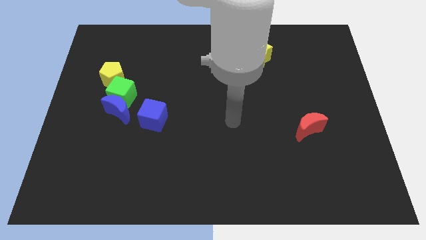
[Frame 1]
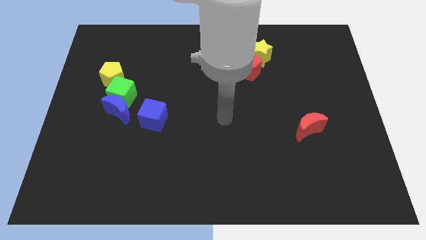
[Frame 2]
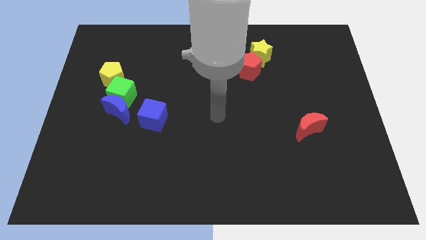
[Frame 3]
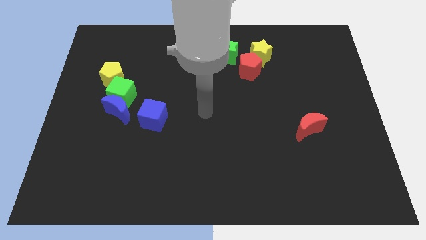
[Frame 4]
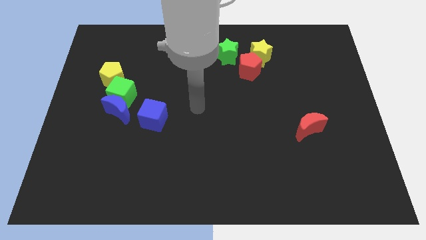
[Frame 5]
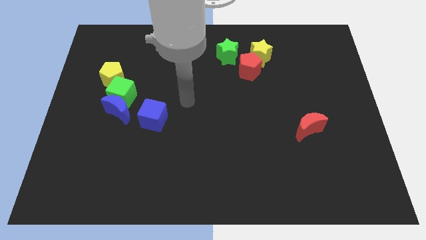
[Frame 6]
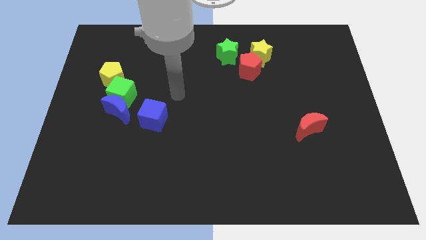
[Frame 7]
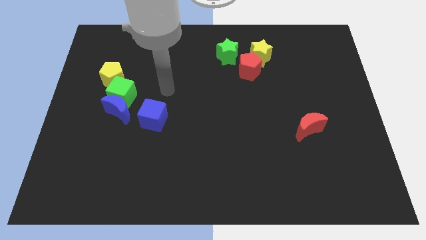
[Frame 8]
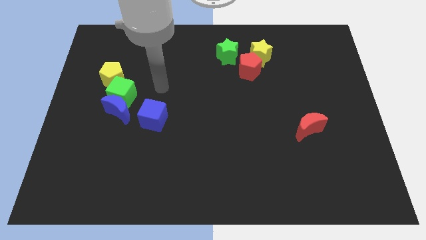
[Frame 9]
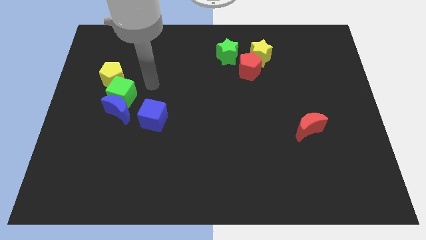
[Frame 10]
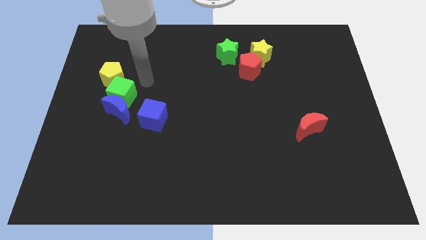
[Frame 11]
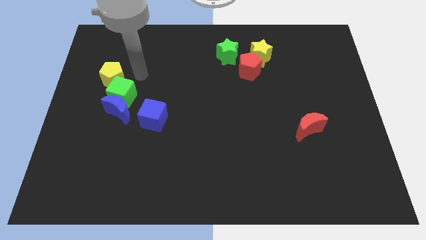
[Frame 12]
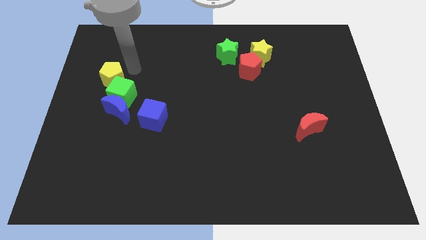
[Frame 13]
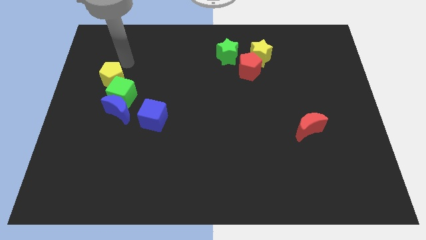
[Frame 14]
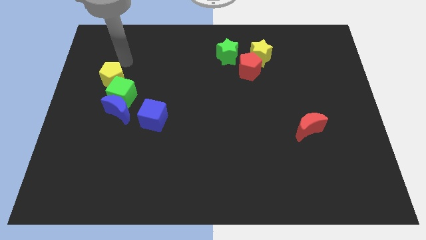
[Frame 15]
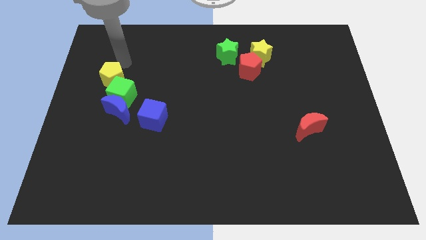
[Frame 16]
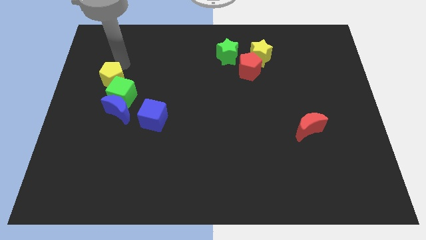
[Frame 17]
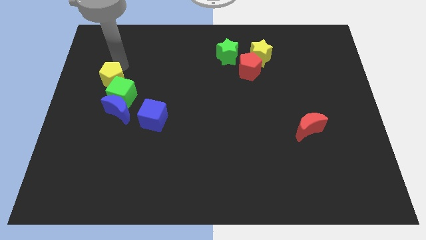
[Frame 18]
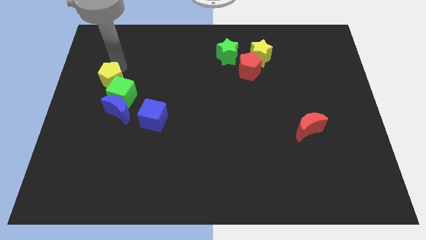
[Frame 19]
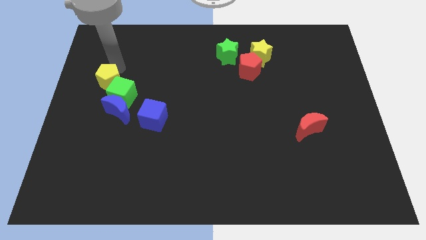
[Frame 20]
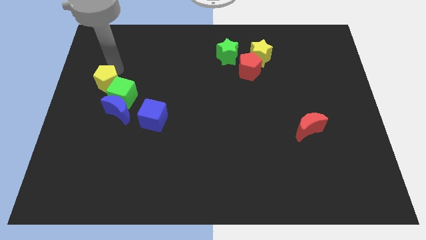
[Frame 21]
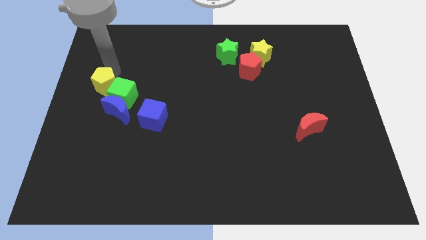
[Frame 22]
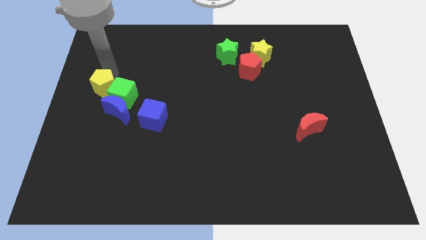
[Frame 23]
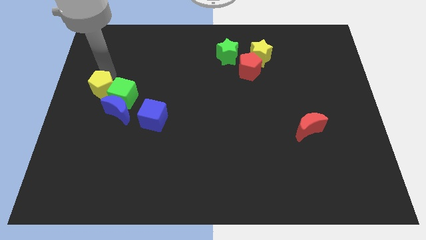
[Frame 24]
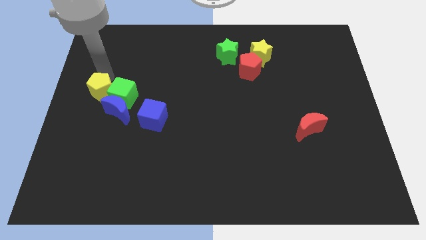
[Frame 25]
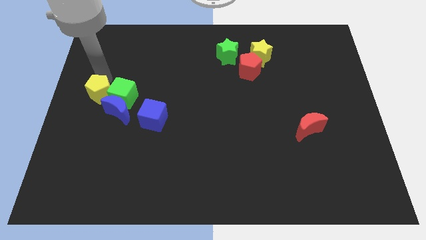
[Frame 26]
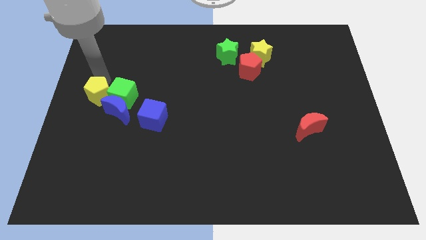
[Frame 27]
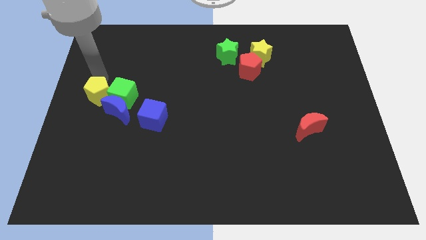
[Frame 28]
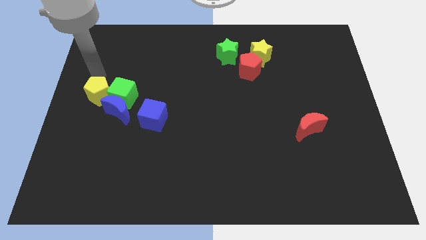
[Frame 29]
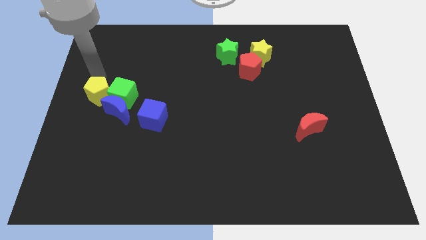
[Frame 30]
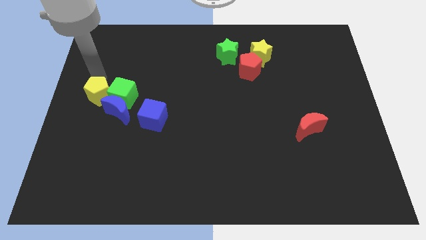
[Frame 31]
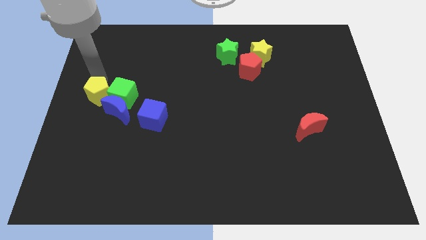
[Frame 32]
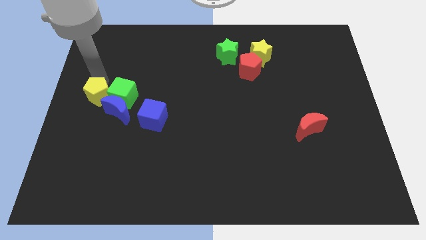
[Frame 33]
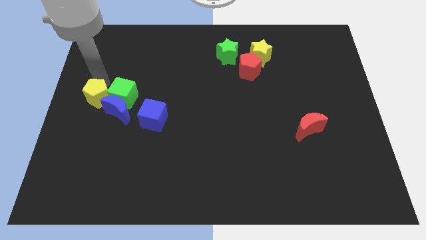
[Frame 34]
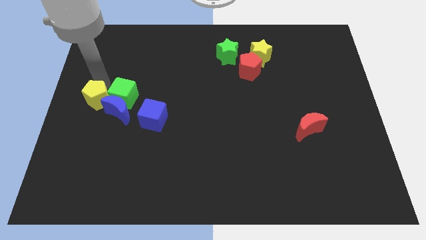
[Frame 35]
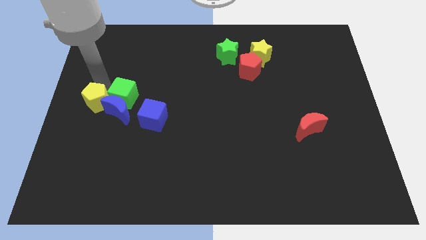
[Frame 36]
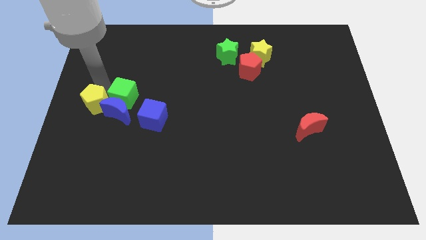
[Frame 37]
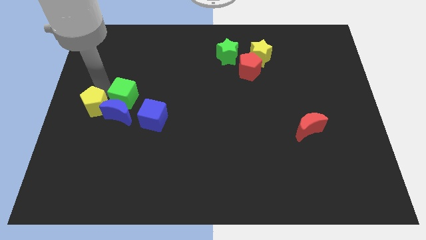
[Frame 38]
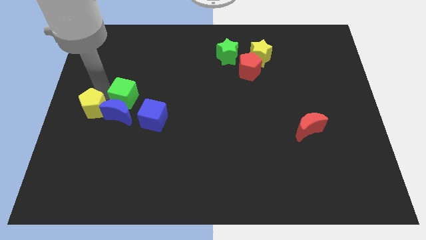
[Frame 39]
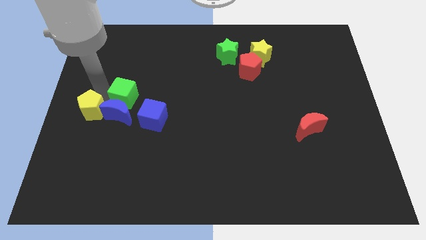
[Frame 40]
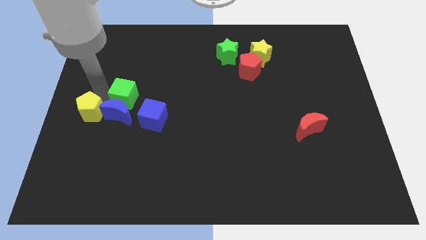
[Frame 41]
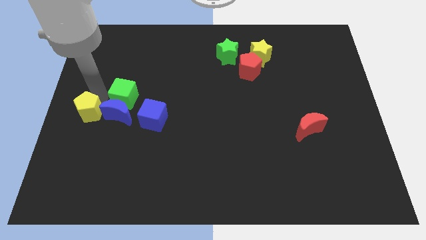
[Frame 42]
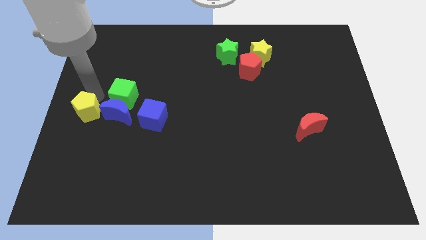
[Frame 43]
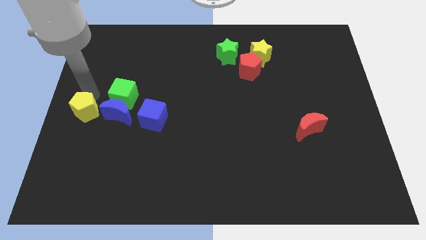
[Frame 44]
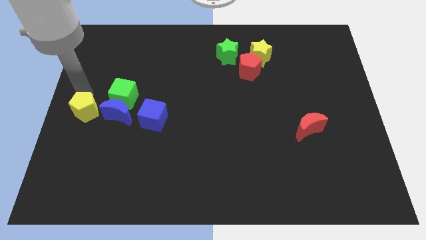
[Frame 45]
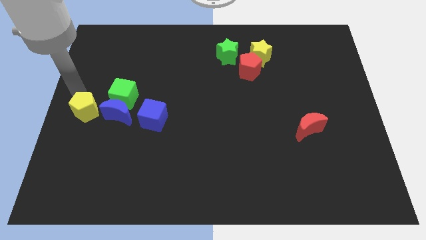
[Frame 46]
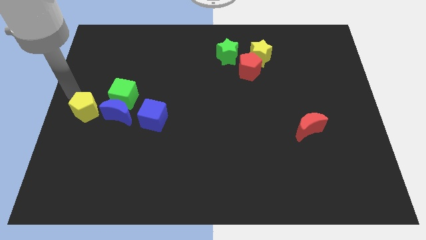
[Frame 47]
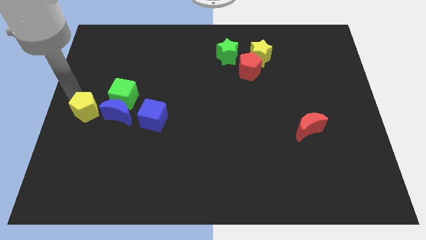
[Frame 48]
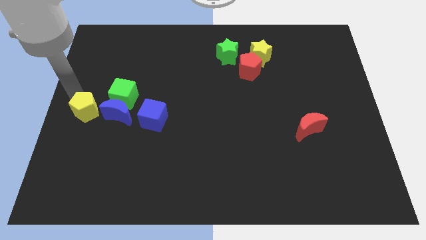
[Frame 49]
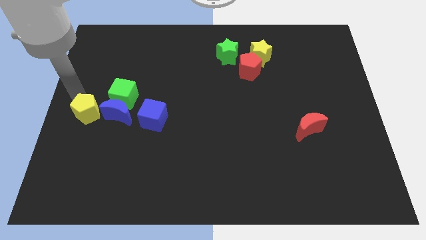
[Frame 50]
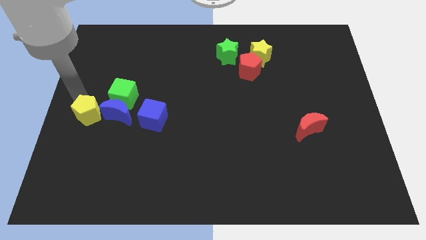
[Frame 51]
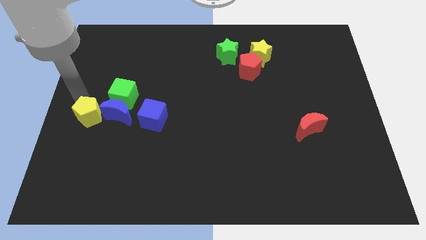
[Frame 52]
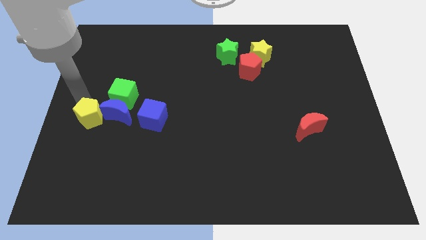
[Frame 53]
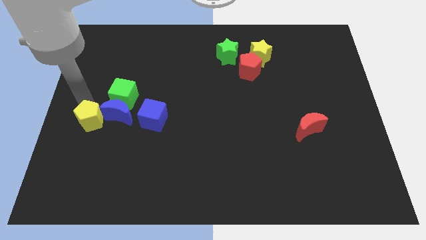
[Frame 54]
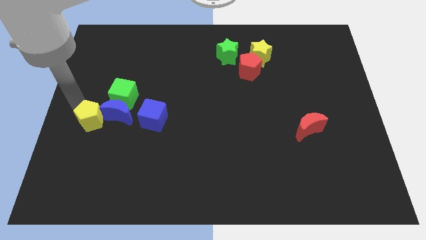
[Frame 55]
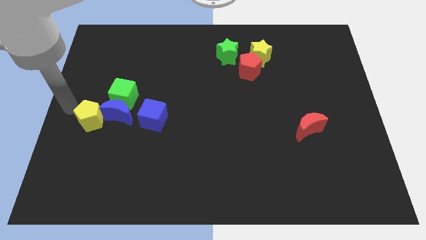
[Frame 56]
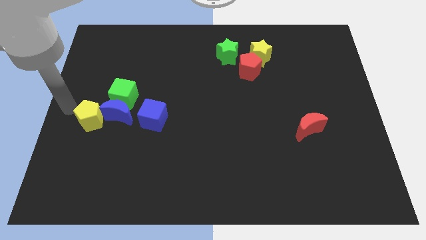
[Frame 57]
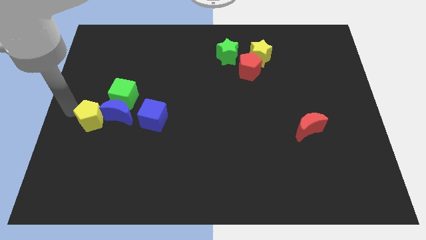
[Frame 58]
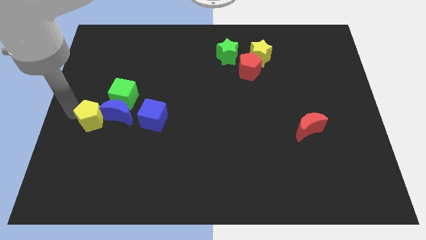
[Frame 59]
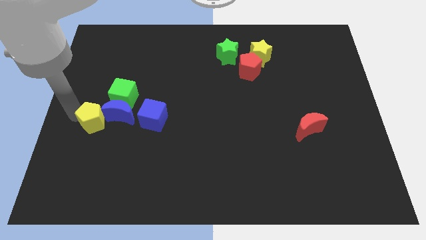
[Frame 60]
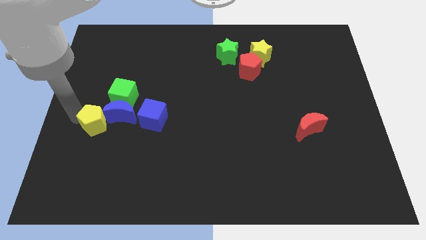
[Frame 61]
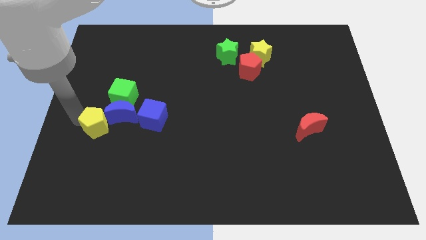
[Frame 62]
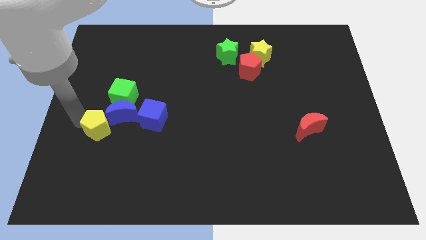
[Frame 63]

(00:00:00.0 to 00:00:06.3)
slide the yellow pentagon to the bottom side of the green cube

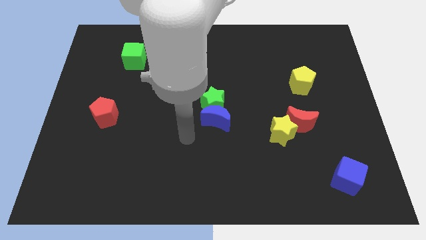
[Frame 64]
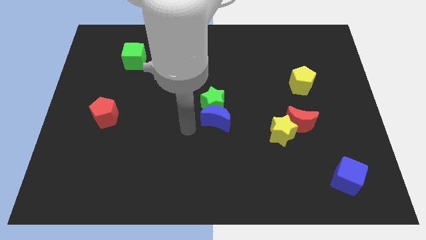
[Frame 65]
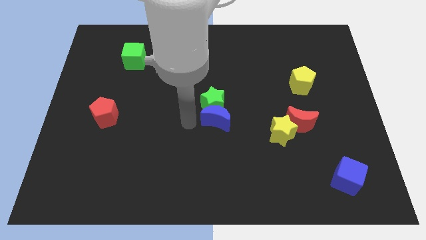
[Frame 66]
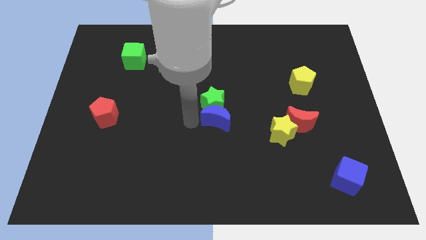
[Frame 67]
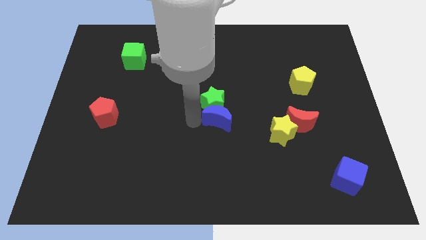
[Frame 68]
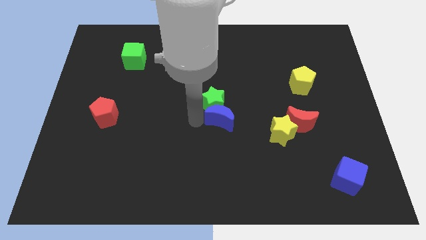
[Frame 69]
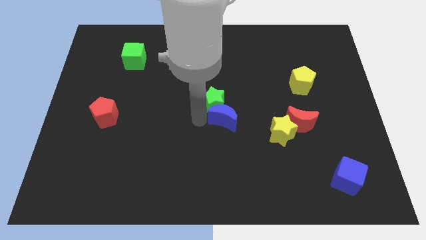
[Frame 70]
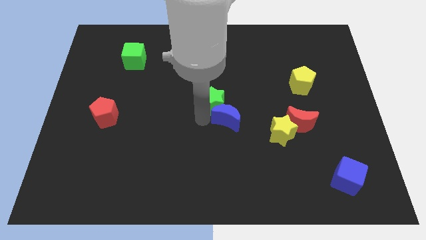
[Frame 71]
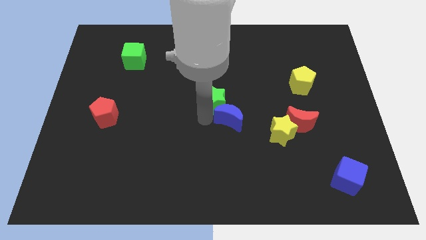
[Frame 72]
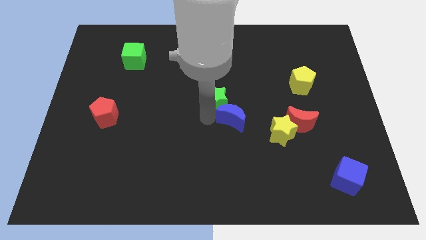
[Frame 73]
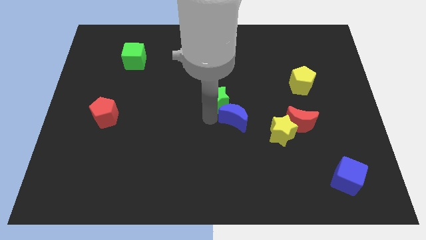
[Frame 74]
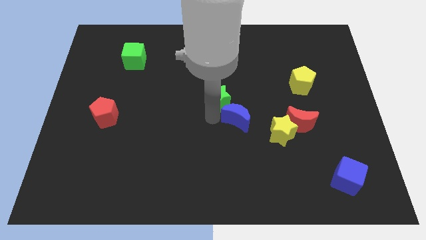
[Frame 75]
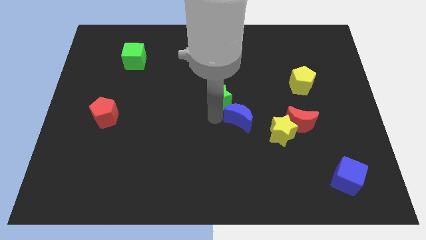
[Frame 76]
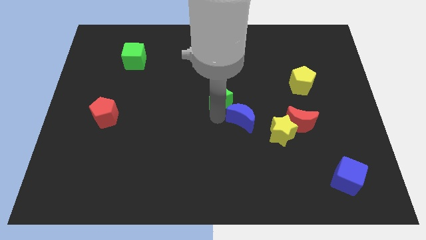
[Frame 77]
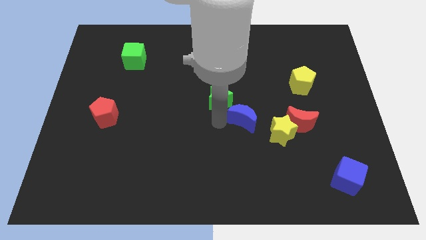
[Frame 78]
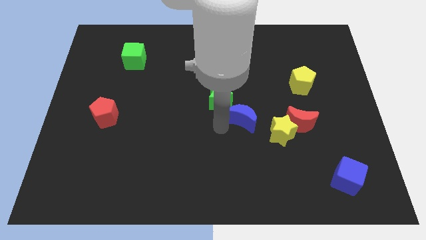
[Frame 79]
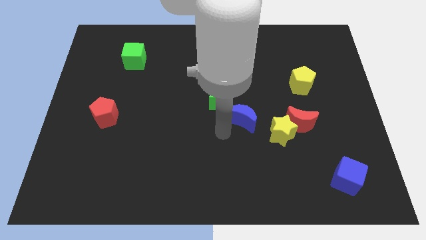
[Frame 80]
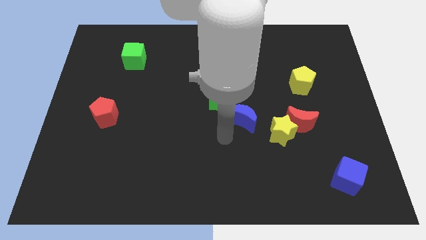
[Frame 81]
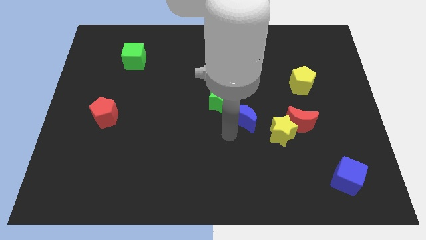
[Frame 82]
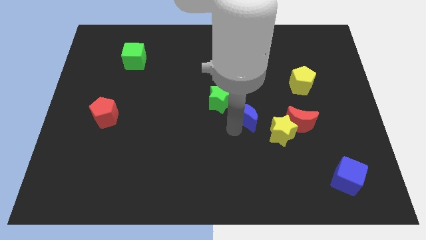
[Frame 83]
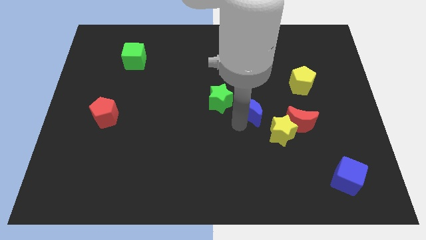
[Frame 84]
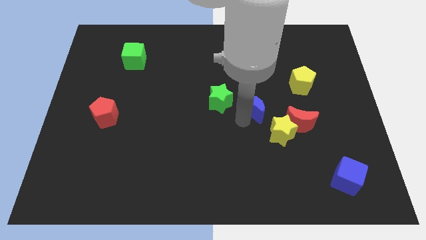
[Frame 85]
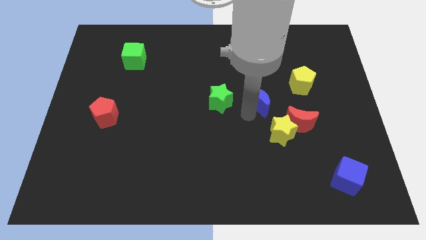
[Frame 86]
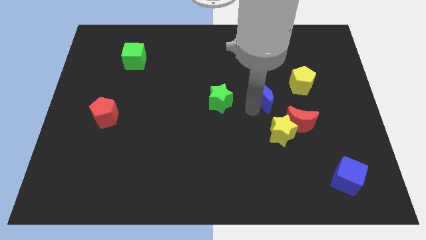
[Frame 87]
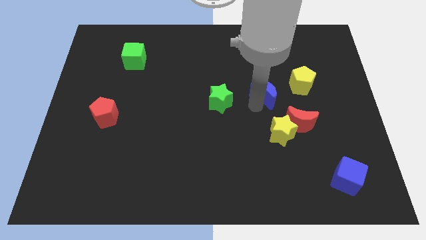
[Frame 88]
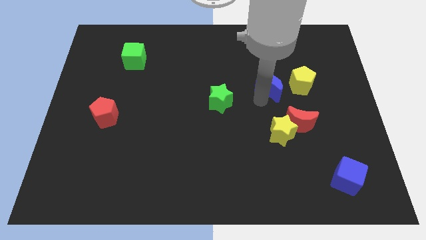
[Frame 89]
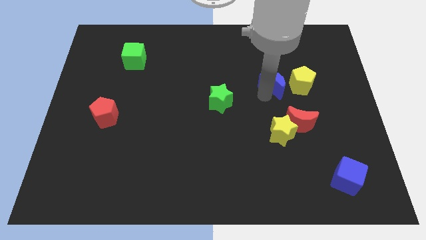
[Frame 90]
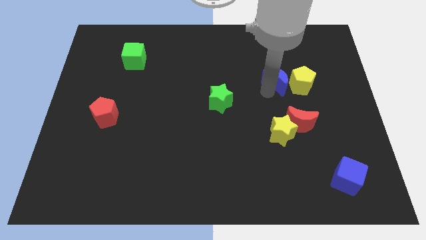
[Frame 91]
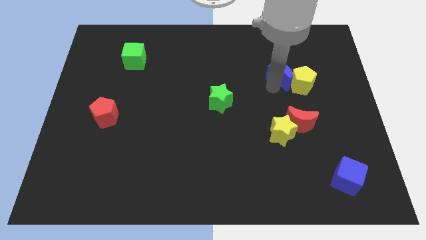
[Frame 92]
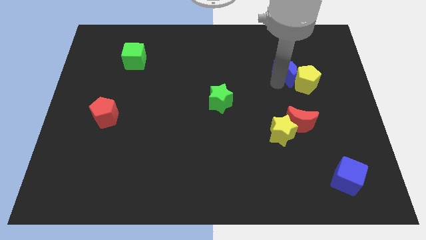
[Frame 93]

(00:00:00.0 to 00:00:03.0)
move the blue moon to the top side of the yellow pentagon
